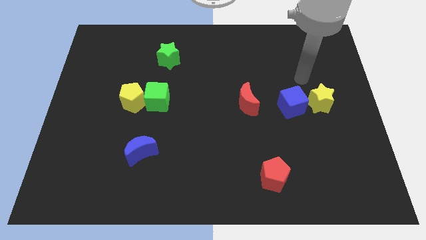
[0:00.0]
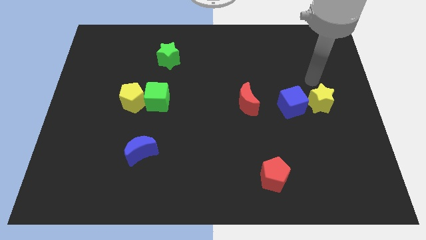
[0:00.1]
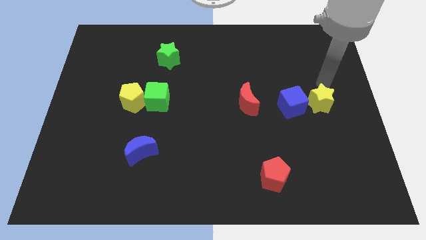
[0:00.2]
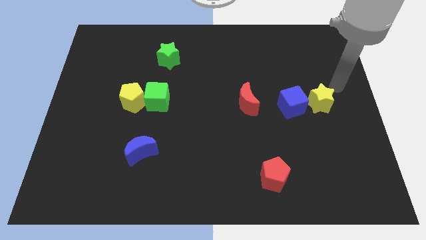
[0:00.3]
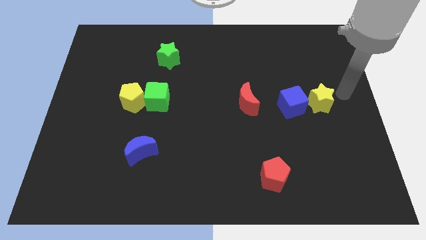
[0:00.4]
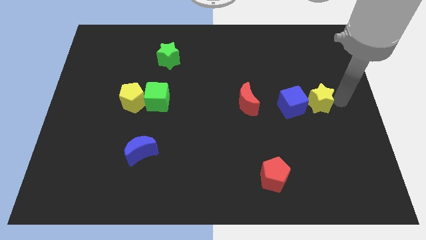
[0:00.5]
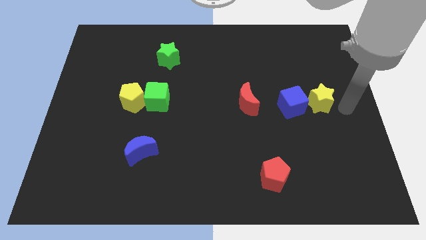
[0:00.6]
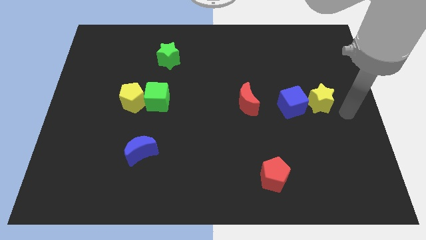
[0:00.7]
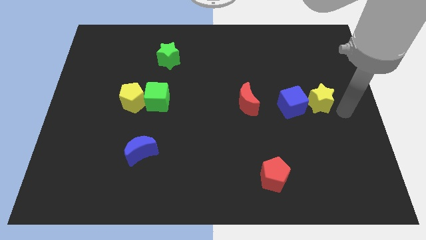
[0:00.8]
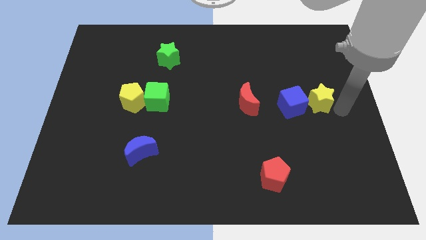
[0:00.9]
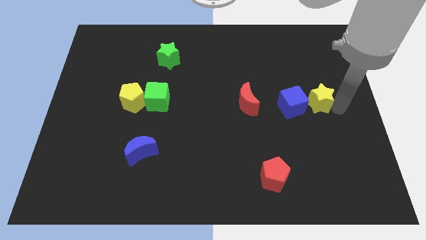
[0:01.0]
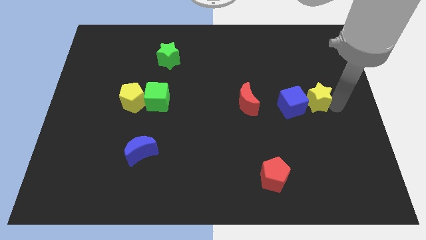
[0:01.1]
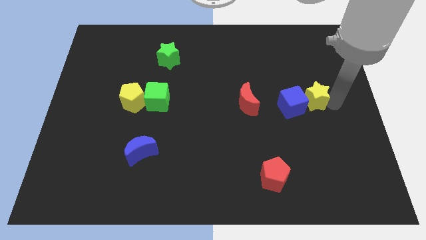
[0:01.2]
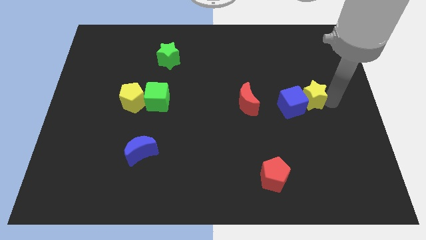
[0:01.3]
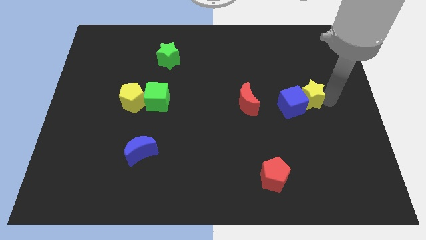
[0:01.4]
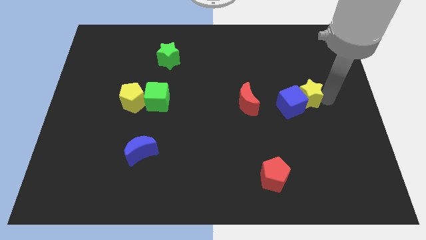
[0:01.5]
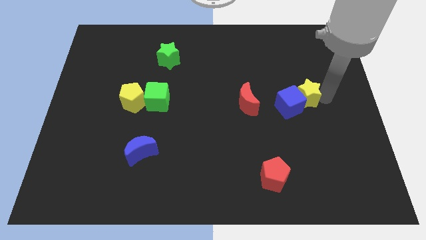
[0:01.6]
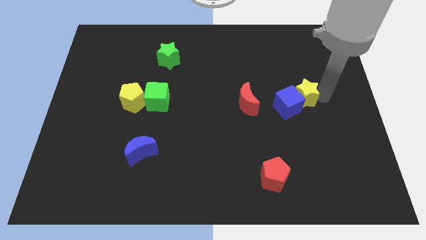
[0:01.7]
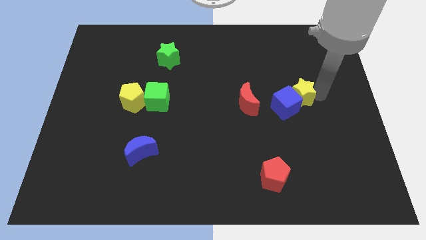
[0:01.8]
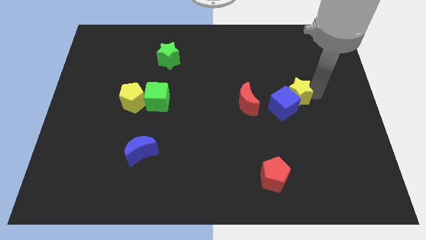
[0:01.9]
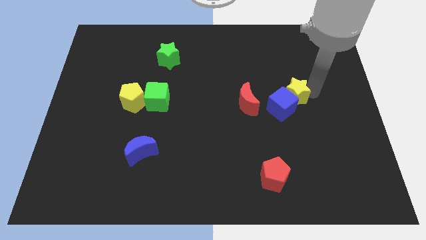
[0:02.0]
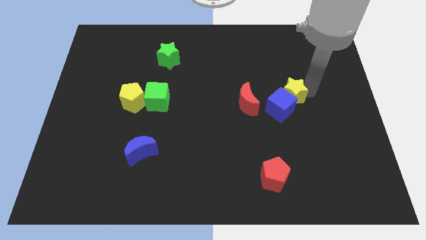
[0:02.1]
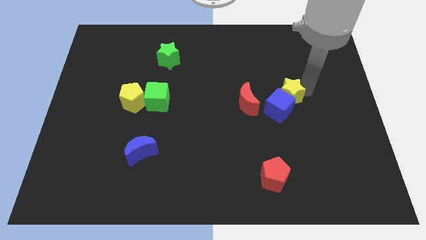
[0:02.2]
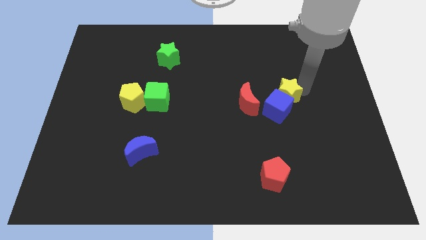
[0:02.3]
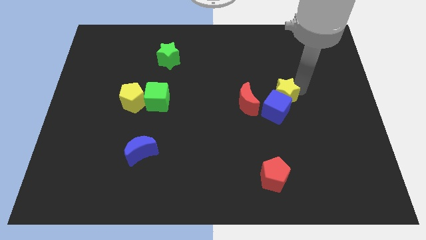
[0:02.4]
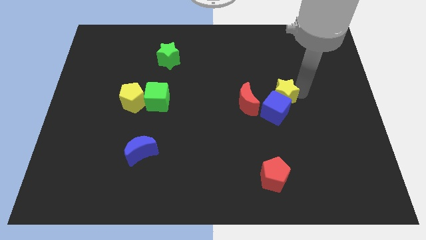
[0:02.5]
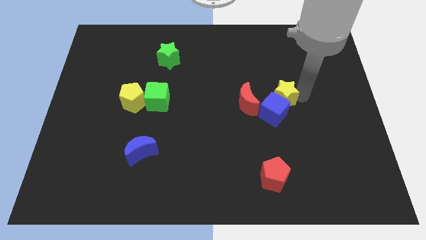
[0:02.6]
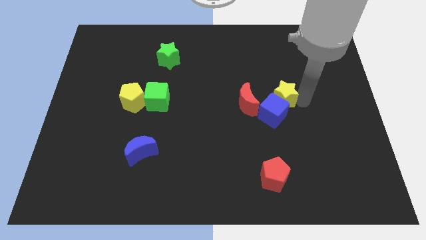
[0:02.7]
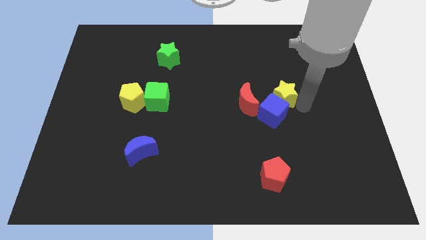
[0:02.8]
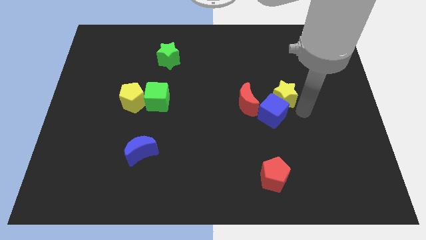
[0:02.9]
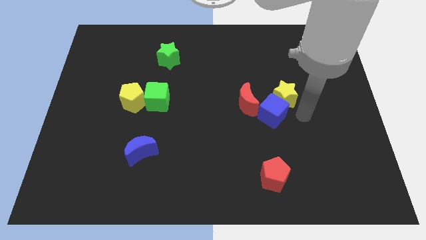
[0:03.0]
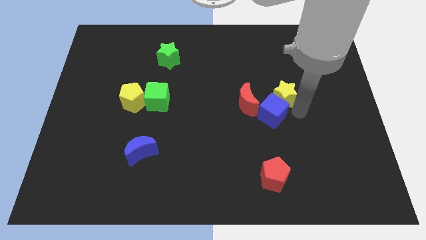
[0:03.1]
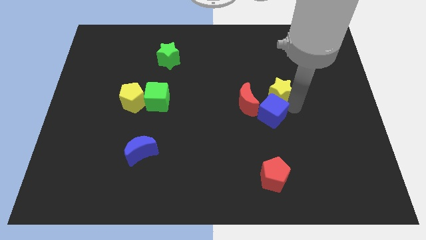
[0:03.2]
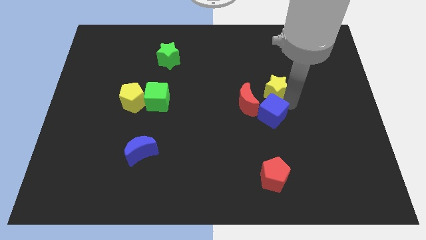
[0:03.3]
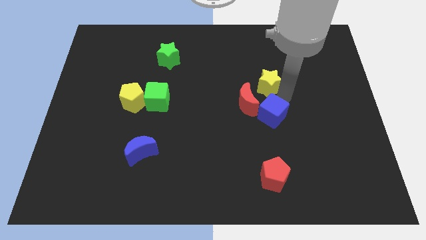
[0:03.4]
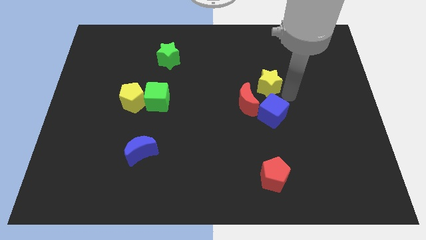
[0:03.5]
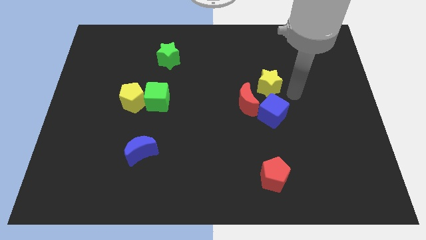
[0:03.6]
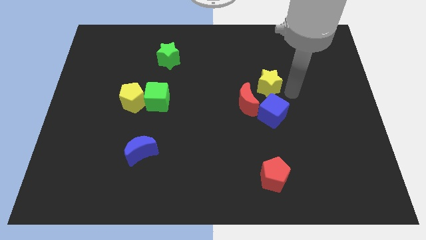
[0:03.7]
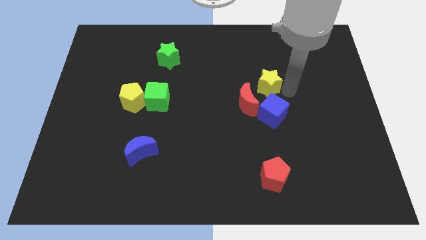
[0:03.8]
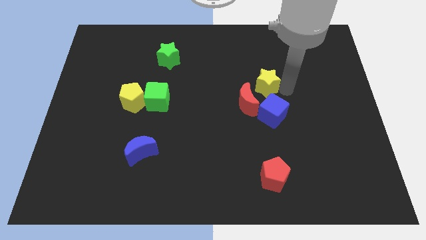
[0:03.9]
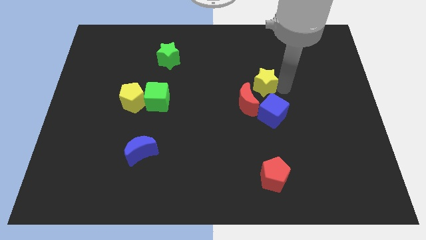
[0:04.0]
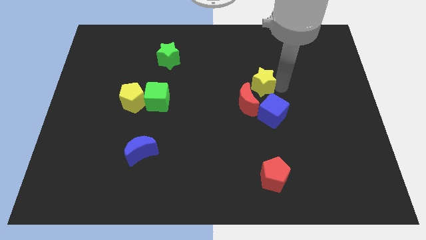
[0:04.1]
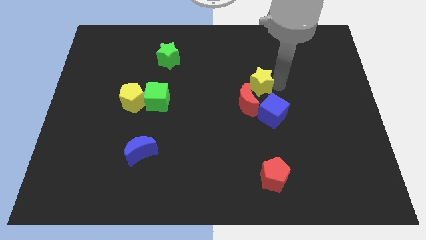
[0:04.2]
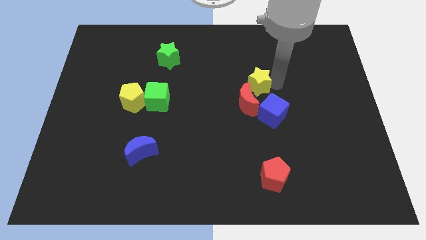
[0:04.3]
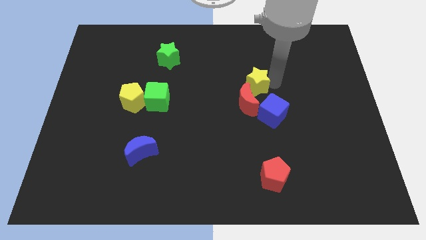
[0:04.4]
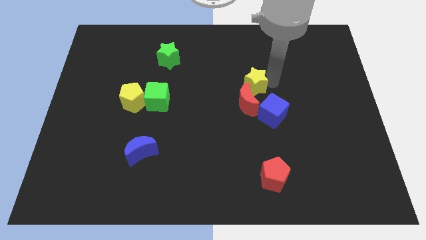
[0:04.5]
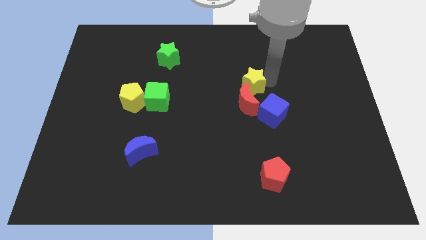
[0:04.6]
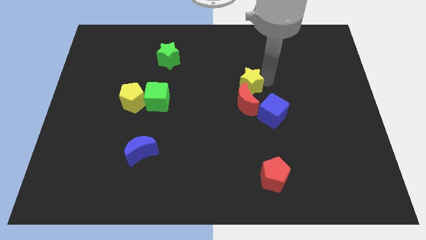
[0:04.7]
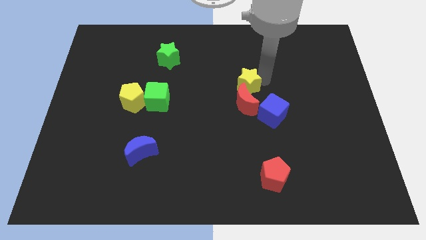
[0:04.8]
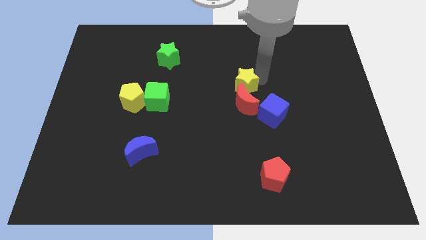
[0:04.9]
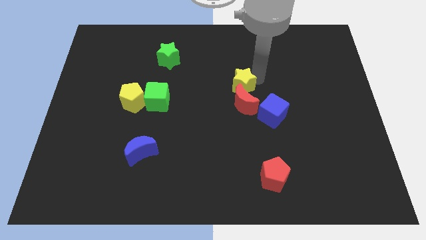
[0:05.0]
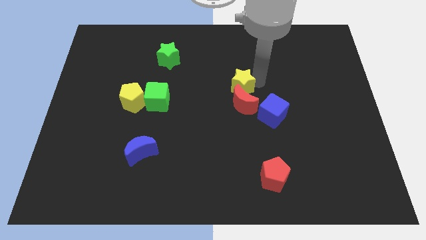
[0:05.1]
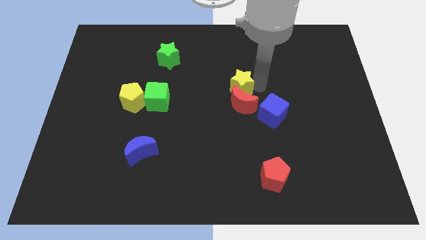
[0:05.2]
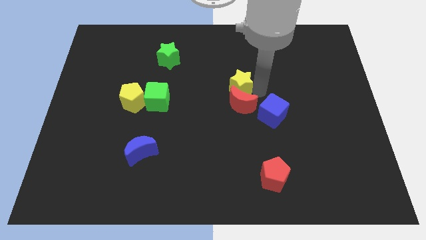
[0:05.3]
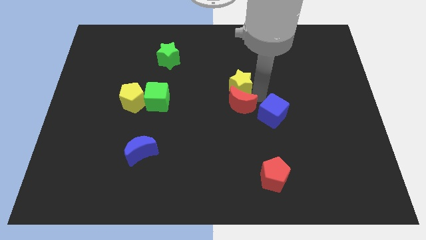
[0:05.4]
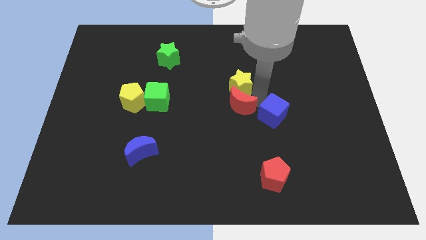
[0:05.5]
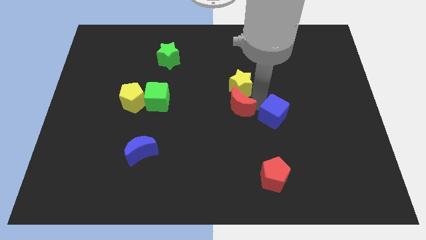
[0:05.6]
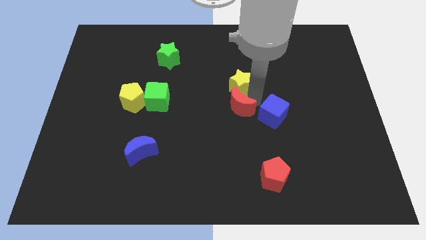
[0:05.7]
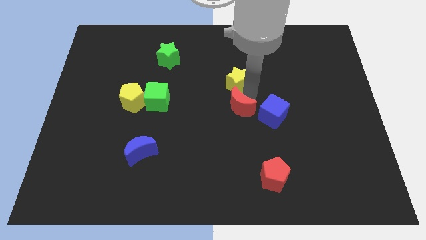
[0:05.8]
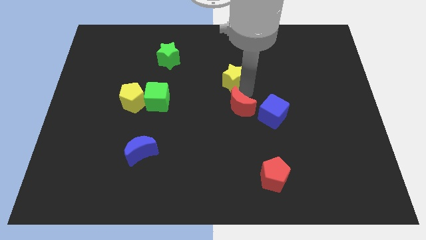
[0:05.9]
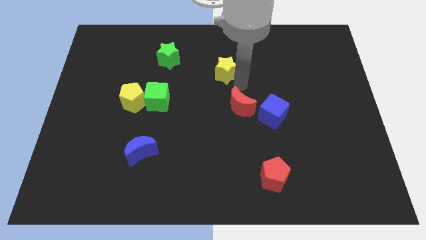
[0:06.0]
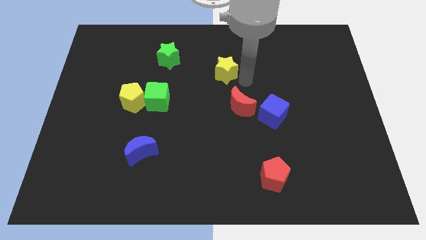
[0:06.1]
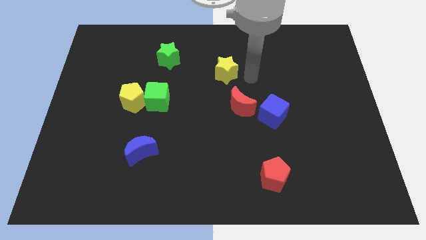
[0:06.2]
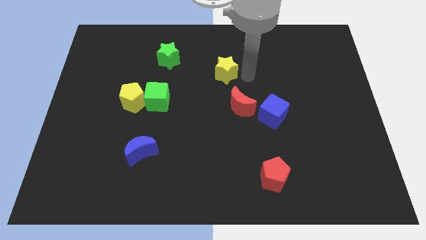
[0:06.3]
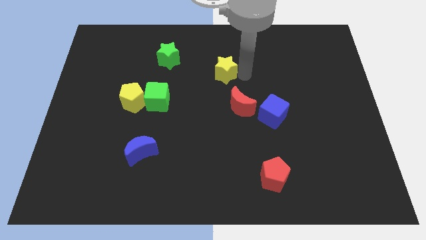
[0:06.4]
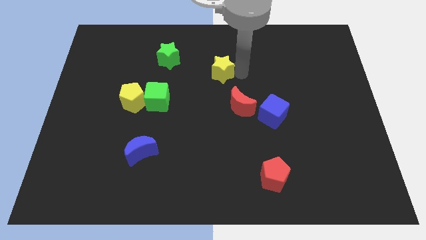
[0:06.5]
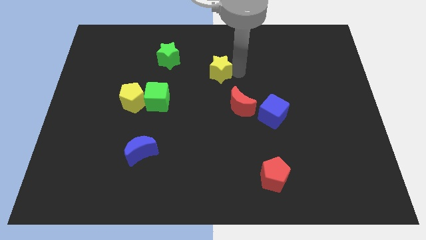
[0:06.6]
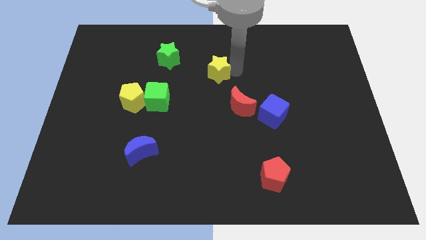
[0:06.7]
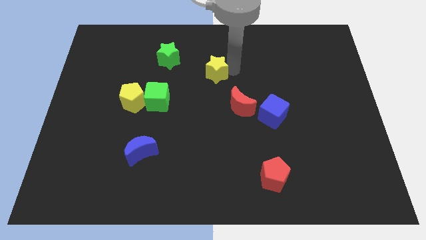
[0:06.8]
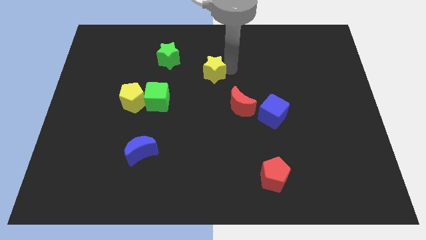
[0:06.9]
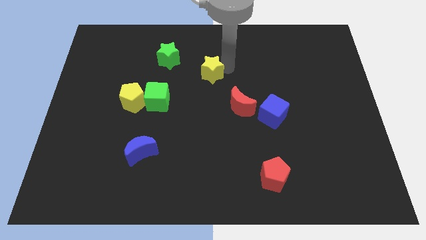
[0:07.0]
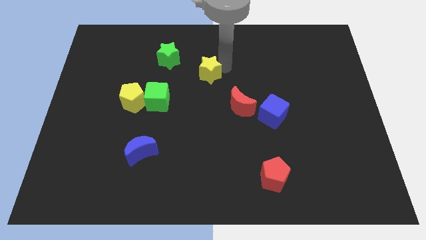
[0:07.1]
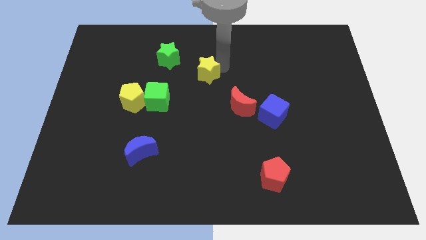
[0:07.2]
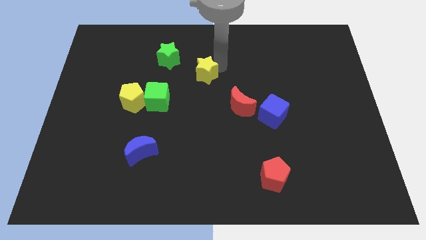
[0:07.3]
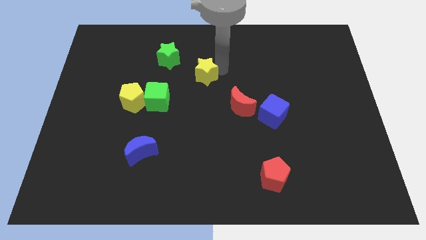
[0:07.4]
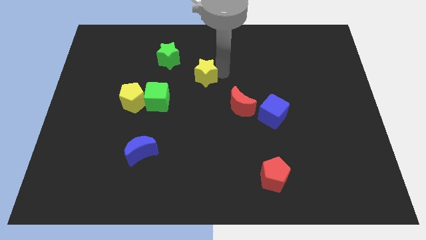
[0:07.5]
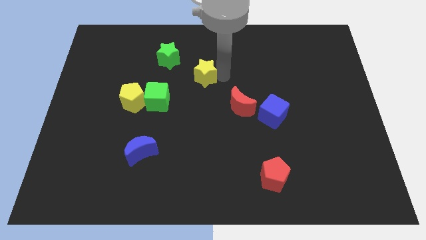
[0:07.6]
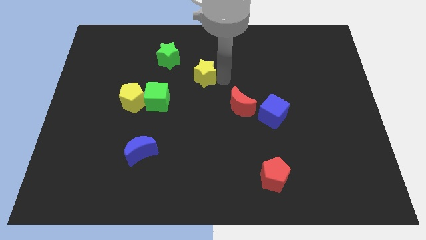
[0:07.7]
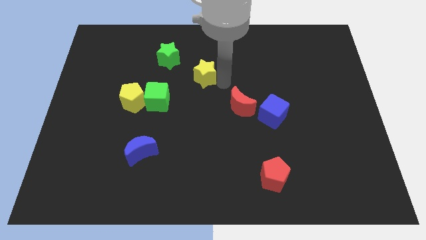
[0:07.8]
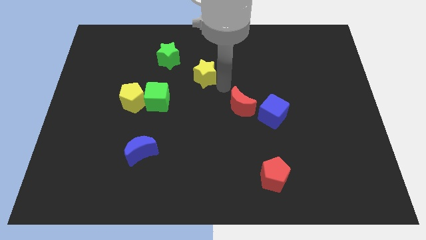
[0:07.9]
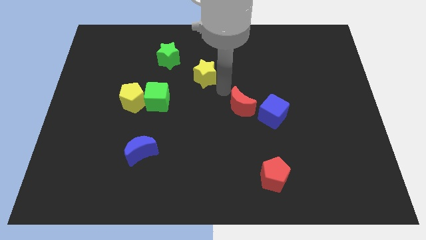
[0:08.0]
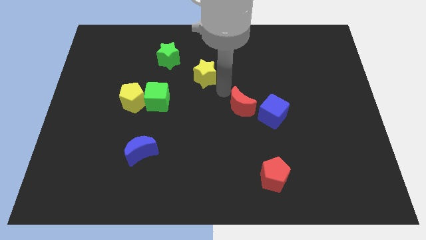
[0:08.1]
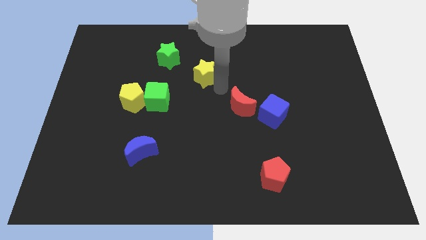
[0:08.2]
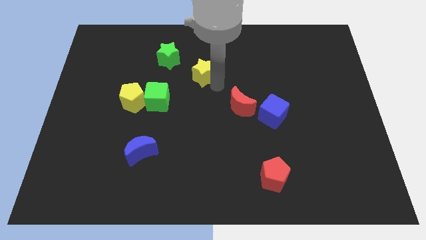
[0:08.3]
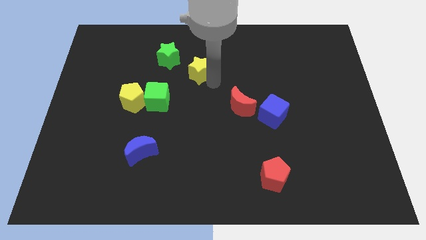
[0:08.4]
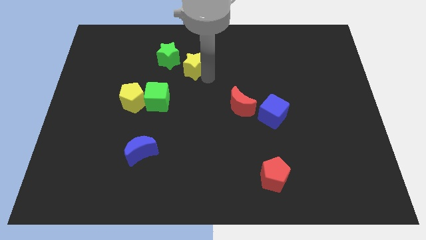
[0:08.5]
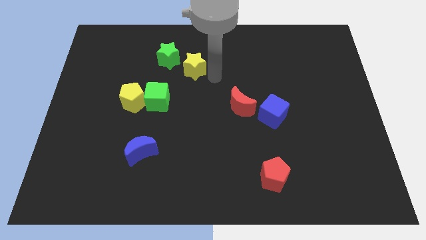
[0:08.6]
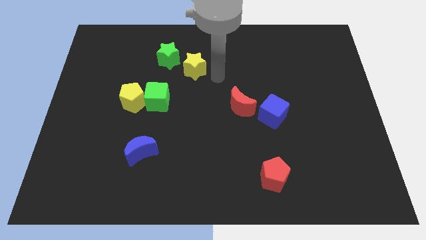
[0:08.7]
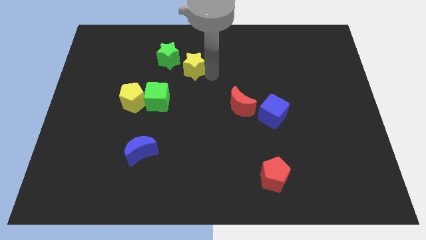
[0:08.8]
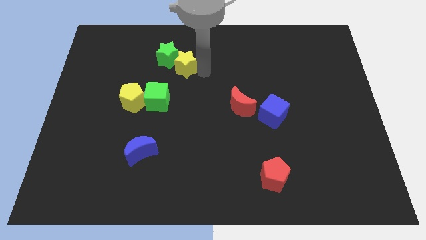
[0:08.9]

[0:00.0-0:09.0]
put the yellow star towards the green star
